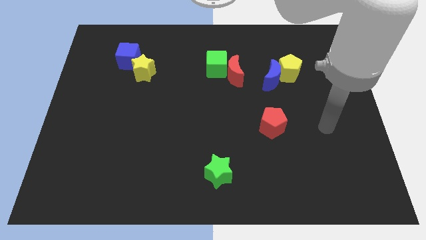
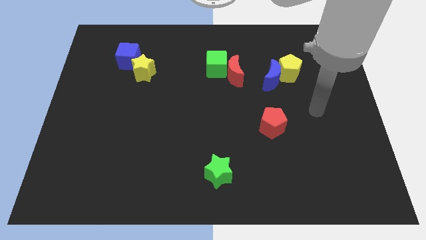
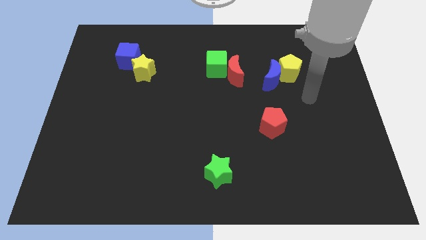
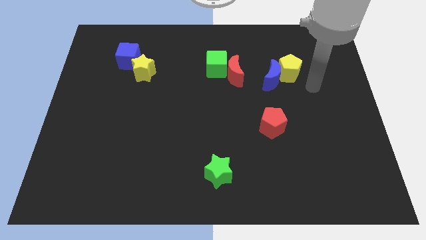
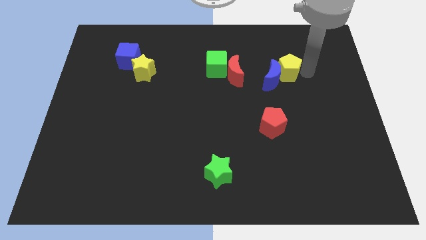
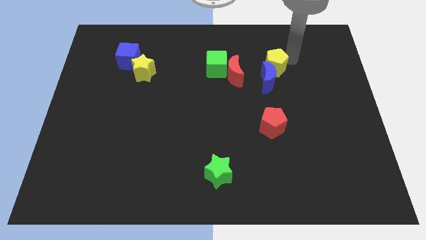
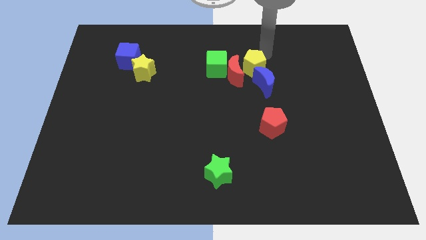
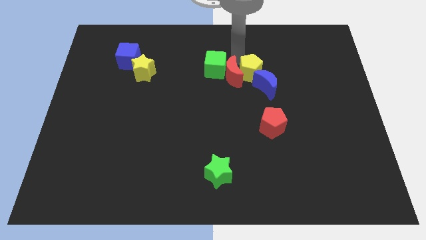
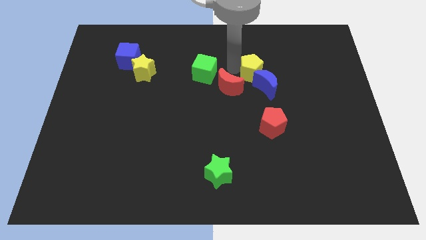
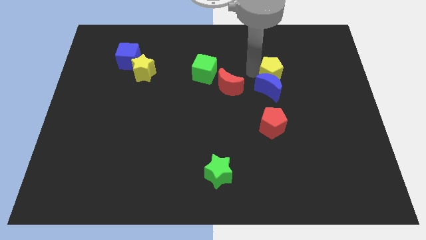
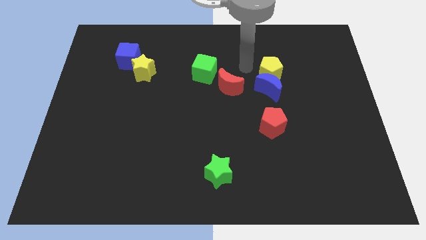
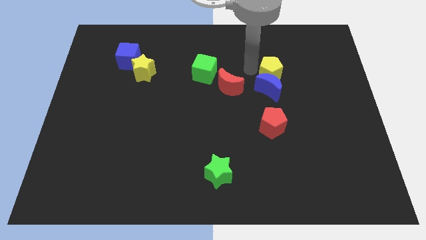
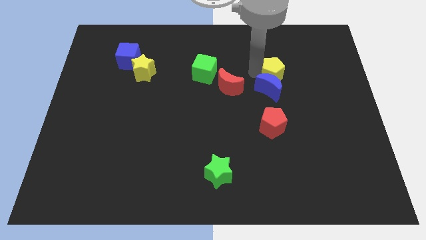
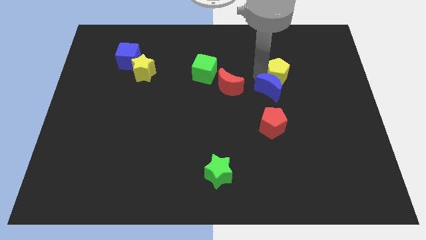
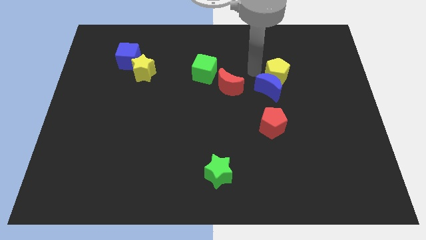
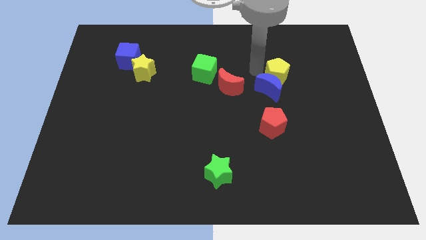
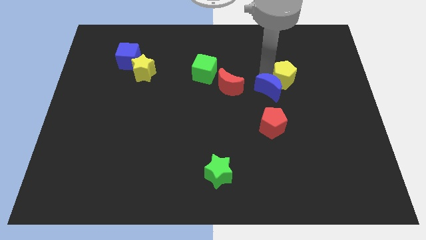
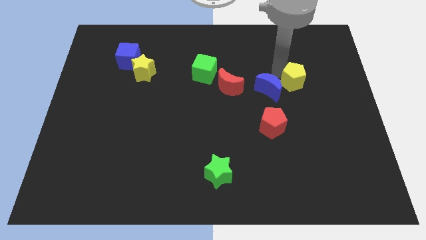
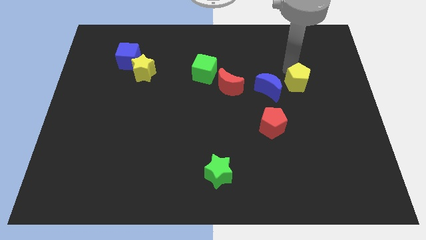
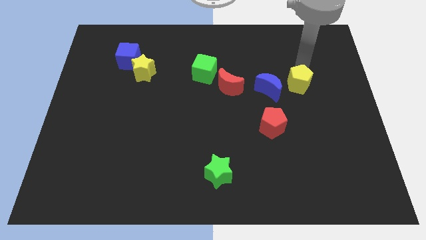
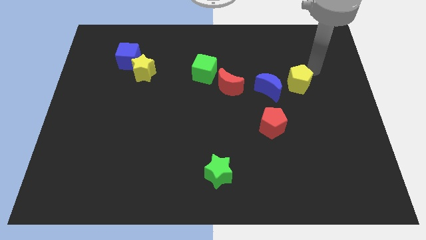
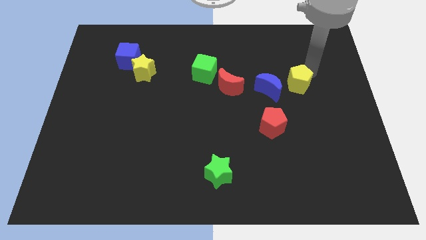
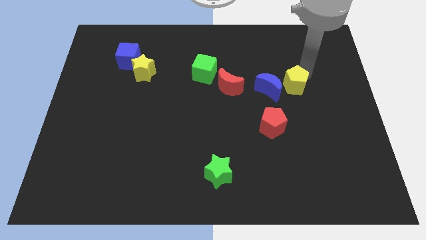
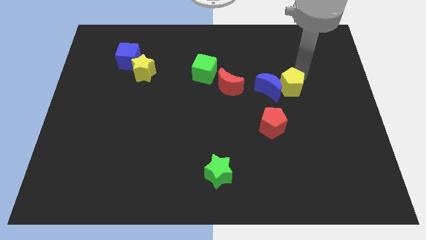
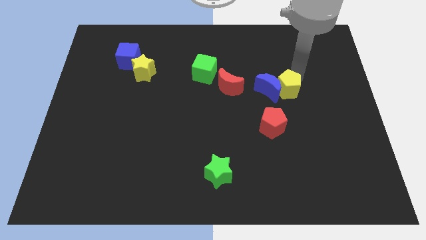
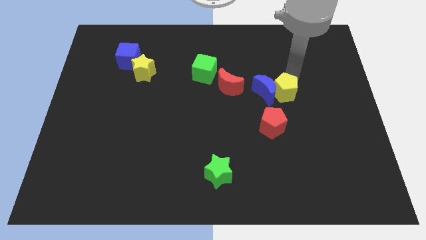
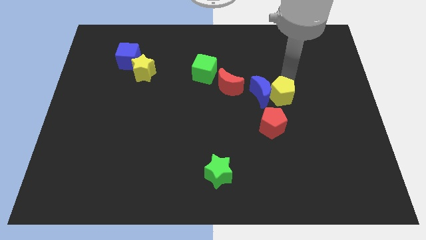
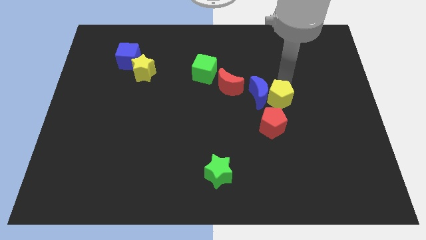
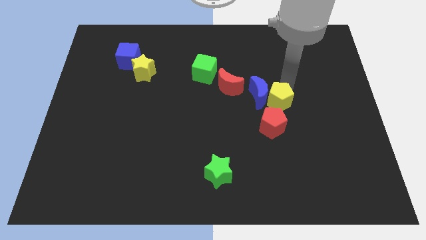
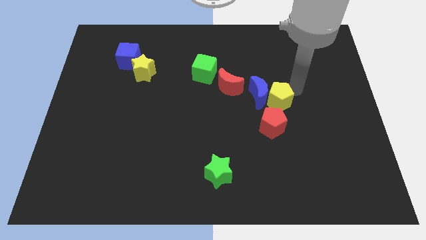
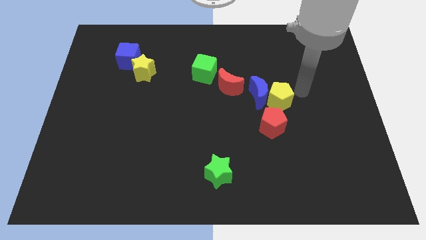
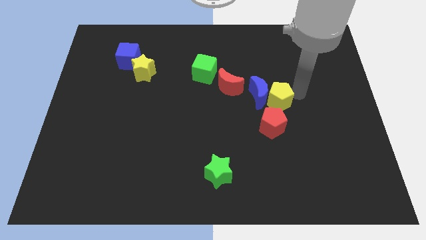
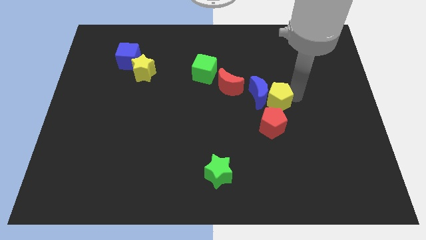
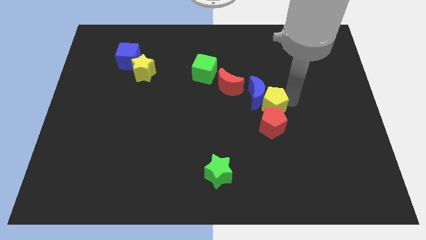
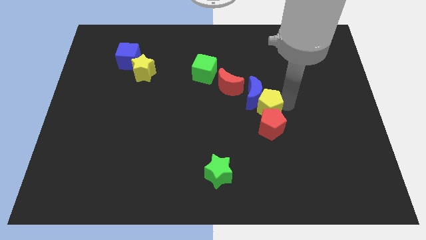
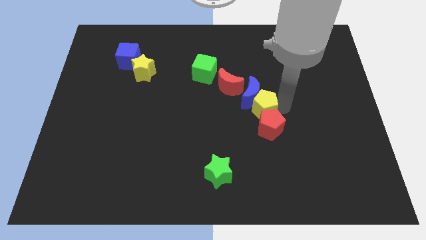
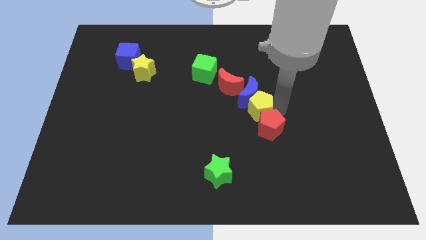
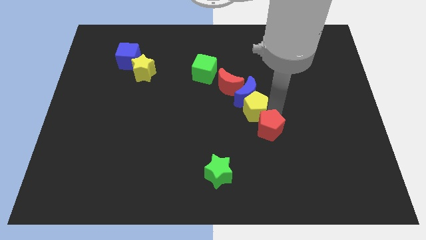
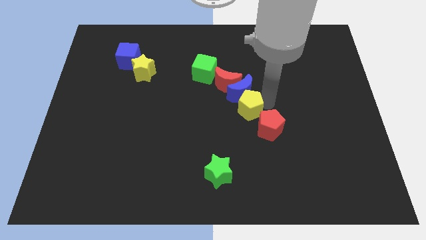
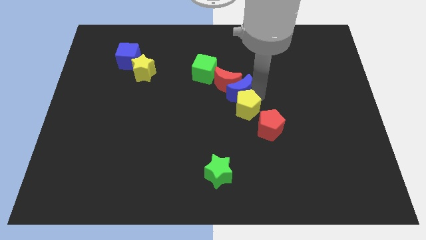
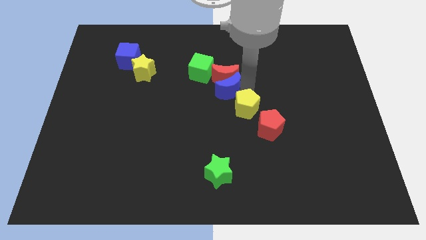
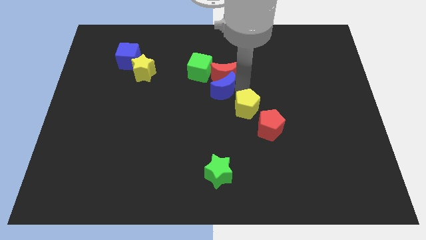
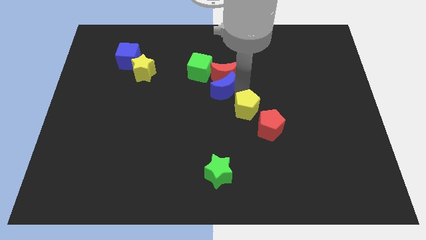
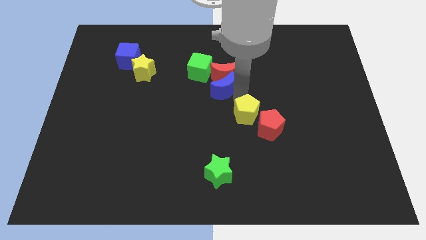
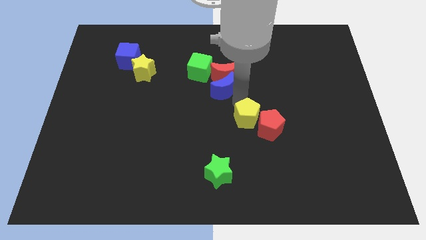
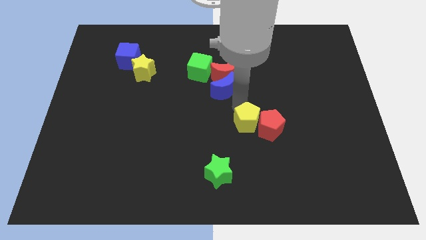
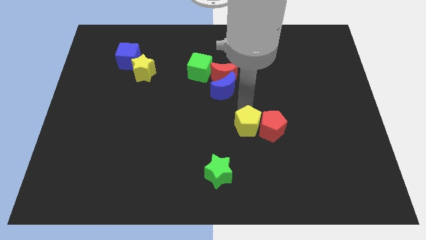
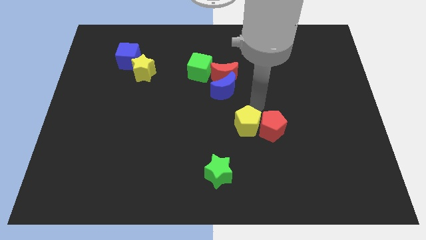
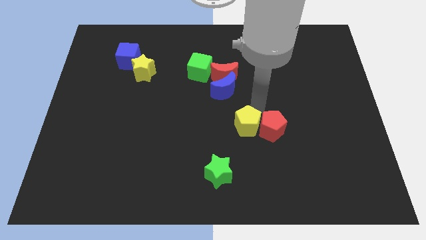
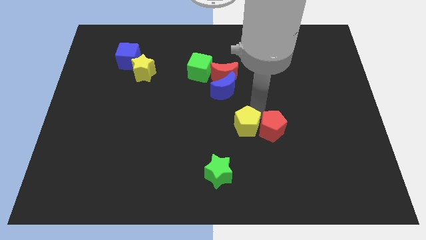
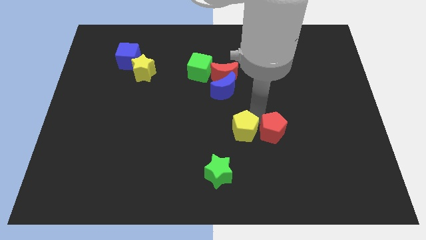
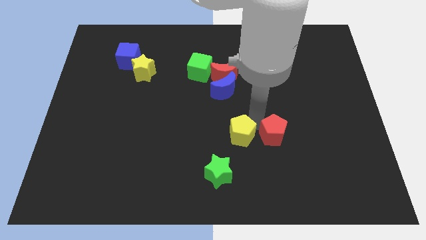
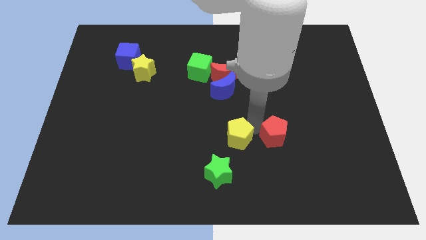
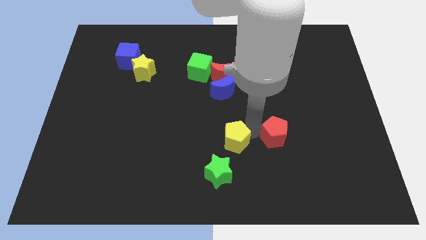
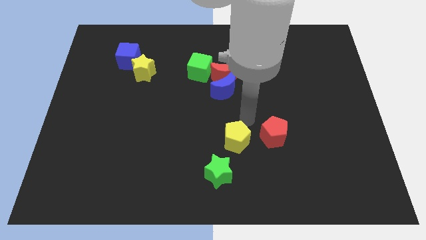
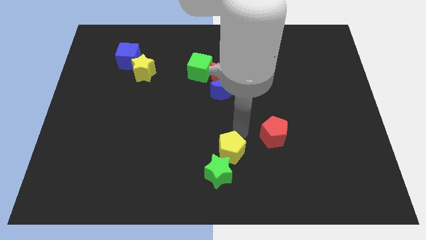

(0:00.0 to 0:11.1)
slide the yellow pentagon to the green star

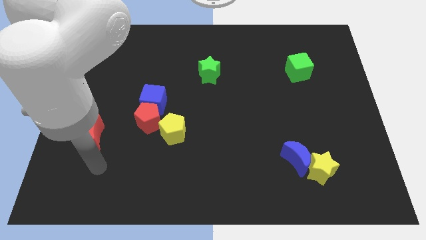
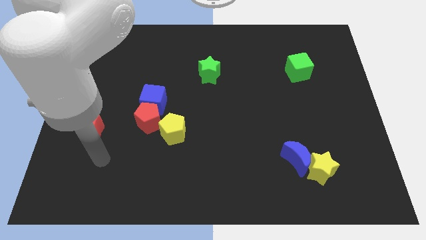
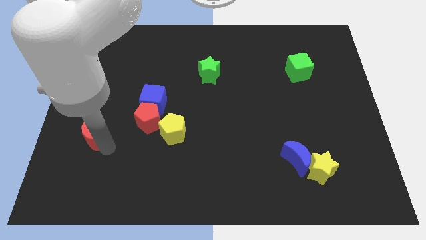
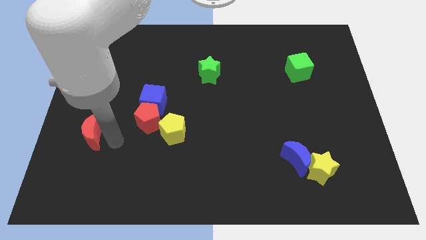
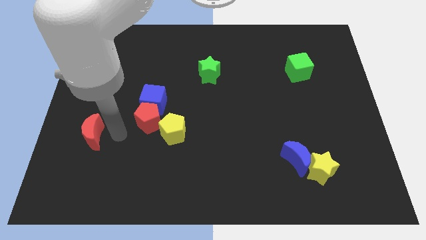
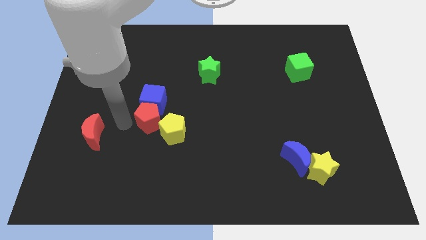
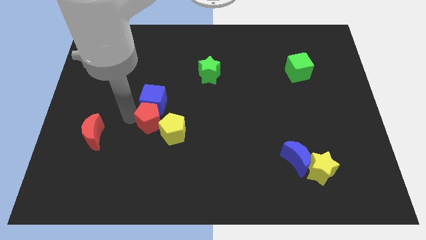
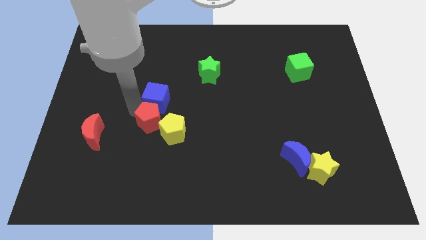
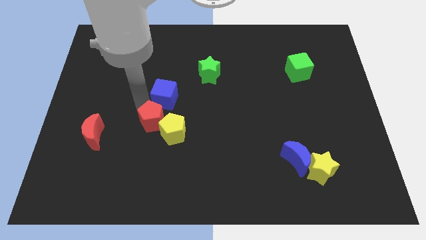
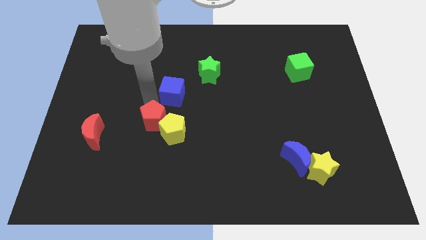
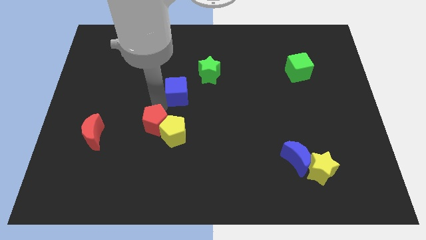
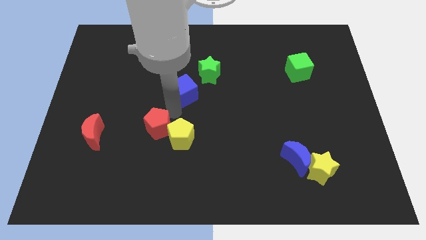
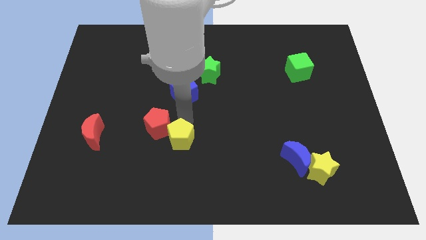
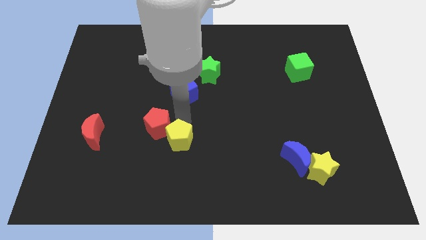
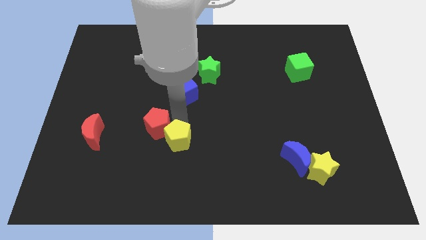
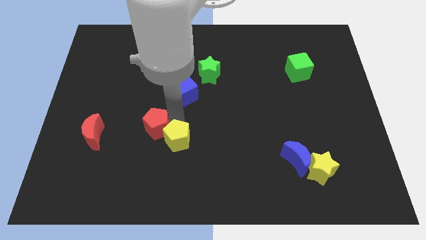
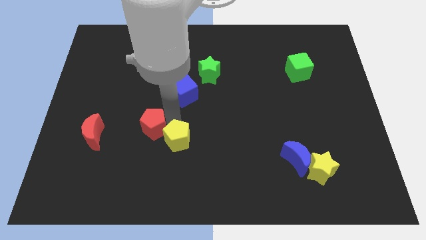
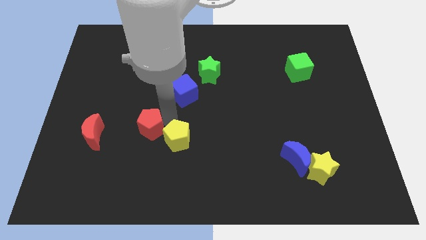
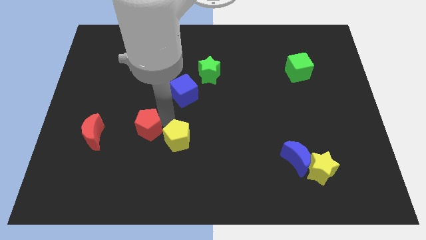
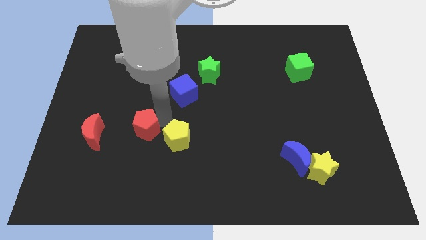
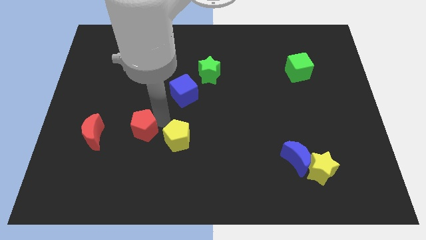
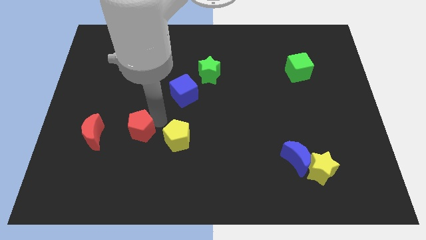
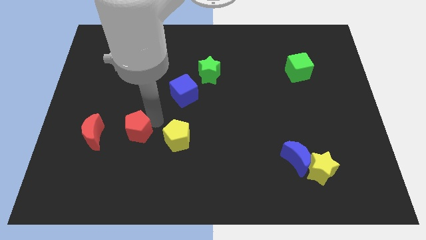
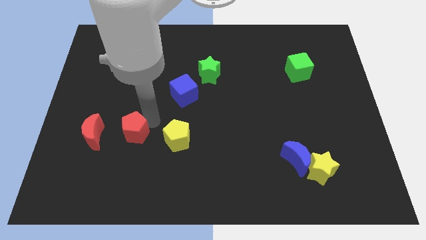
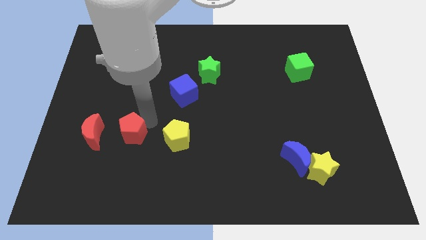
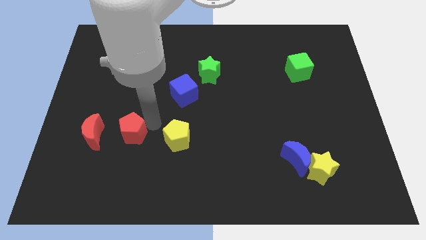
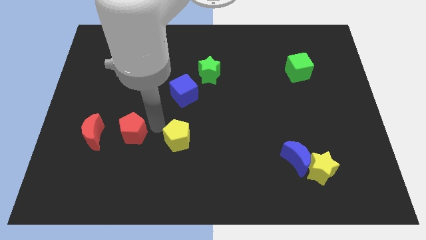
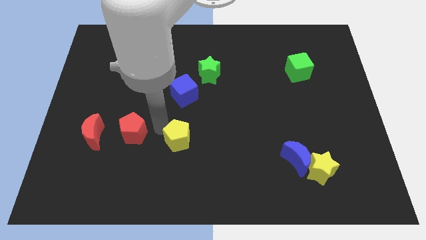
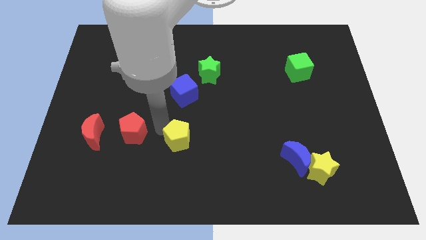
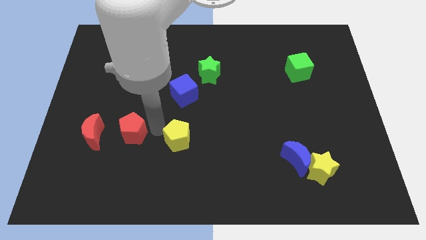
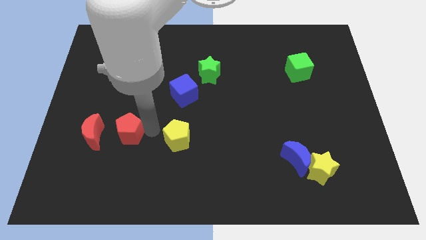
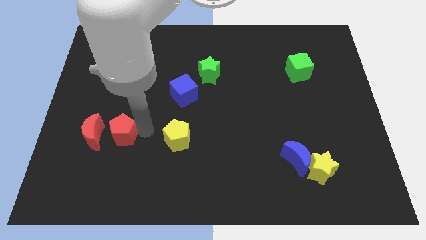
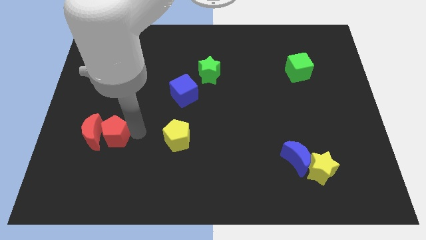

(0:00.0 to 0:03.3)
put the red pentagon to the red moon
